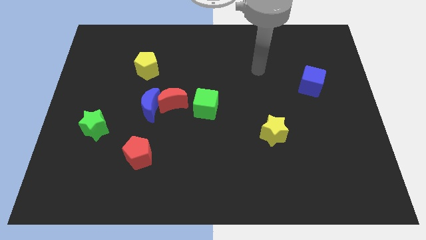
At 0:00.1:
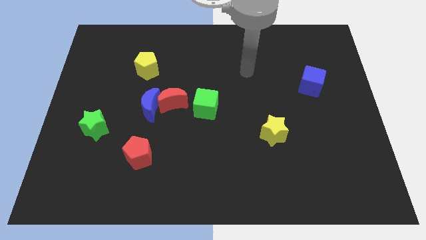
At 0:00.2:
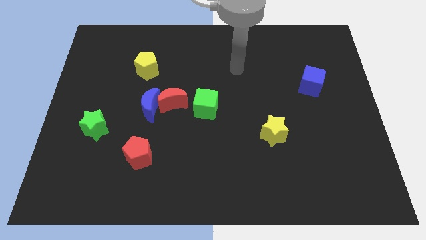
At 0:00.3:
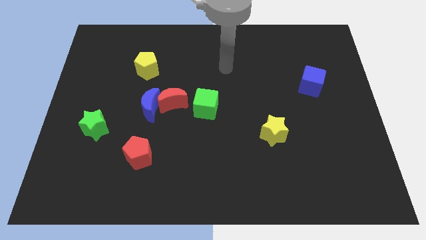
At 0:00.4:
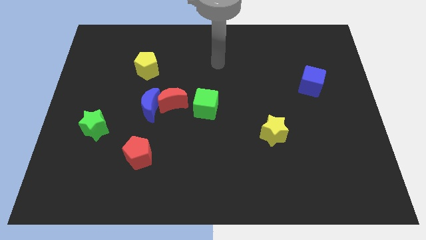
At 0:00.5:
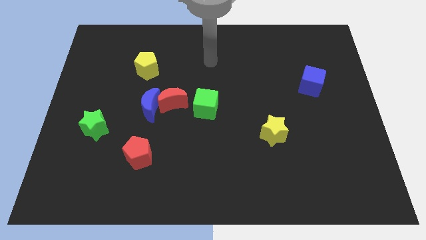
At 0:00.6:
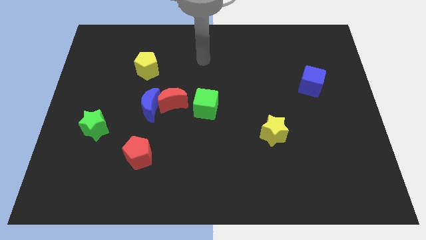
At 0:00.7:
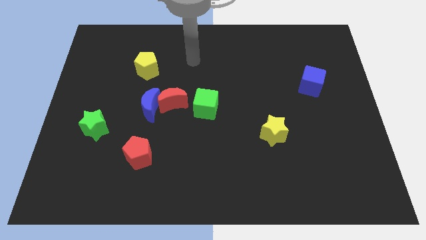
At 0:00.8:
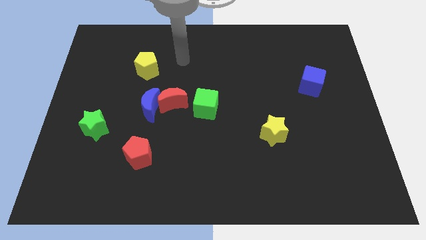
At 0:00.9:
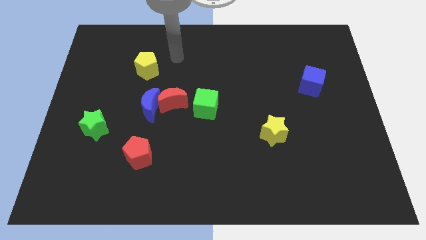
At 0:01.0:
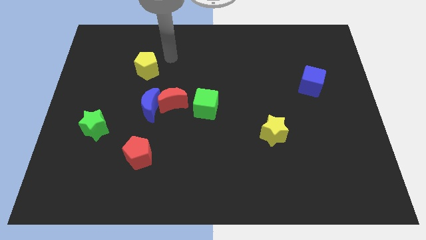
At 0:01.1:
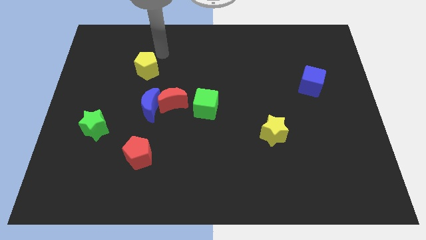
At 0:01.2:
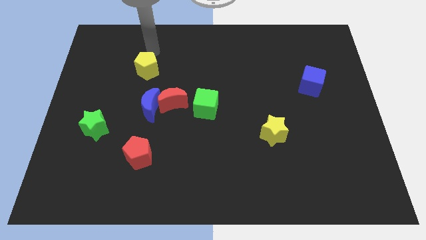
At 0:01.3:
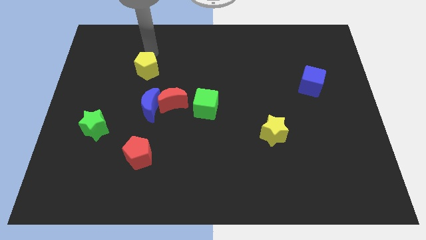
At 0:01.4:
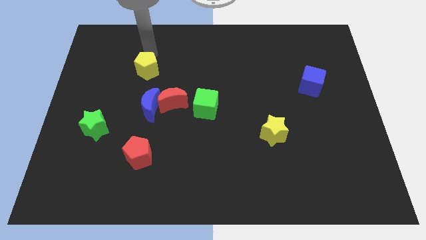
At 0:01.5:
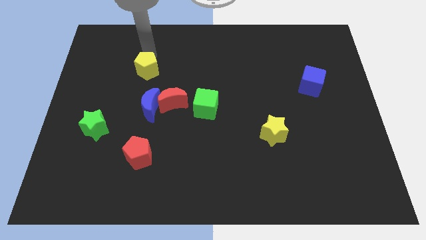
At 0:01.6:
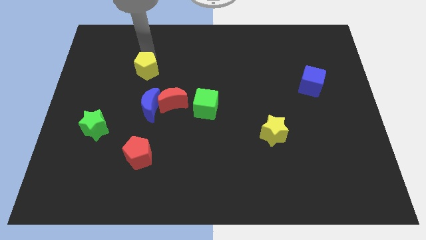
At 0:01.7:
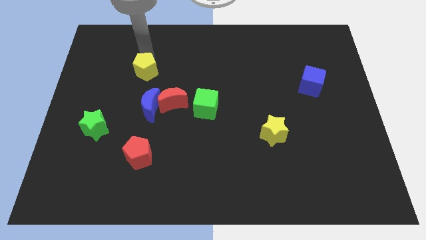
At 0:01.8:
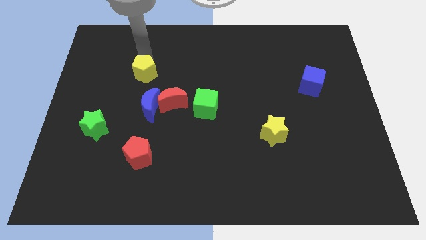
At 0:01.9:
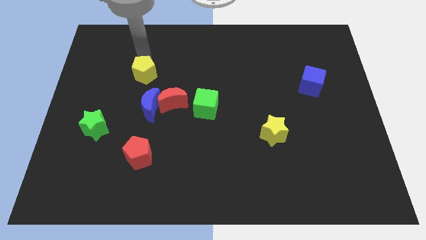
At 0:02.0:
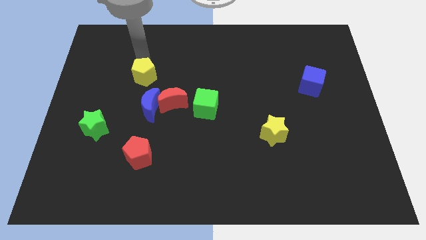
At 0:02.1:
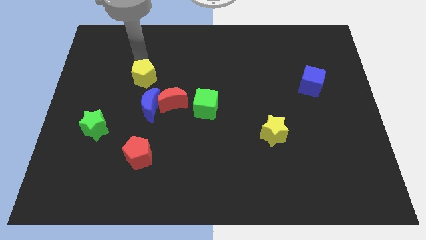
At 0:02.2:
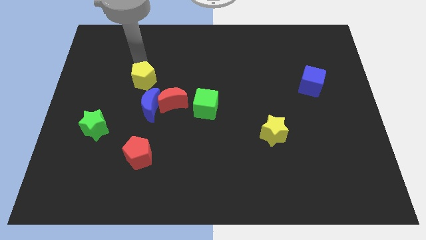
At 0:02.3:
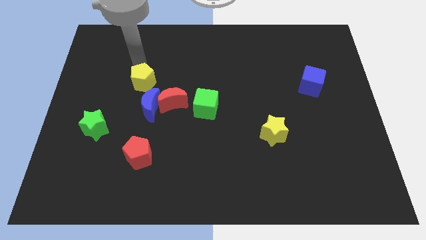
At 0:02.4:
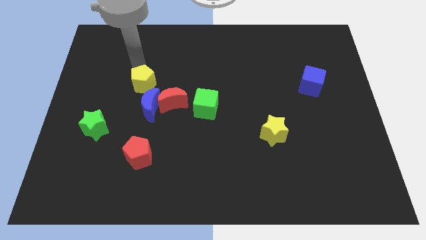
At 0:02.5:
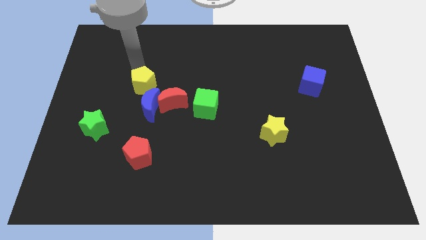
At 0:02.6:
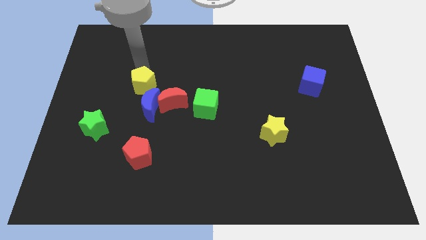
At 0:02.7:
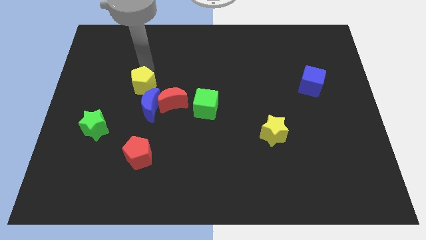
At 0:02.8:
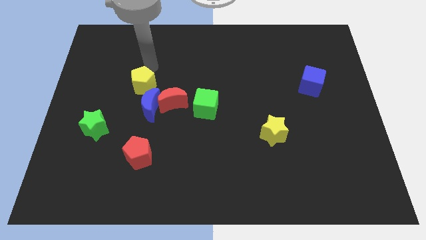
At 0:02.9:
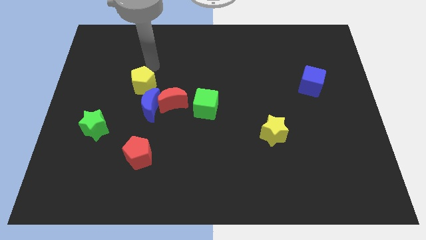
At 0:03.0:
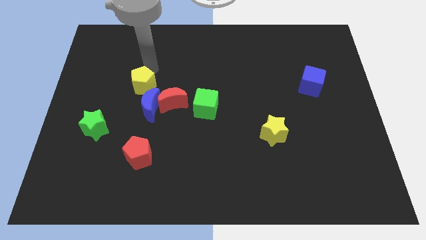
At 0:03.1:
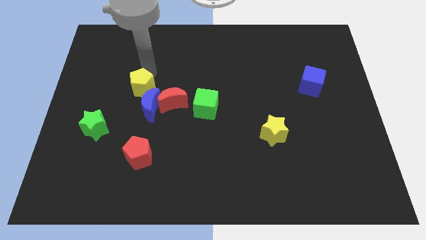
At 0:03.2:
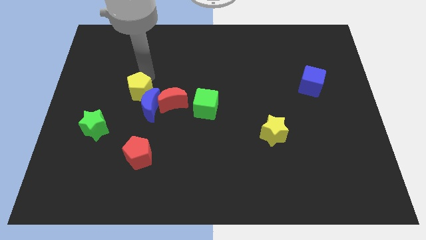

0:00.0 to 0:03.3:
slightly push the yellow pentagon down

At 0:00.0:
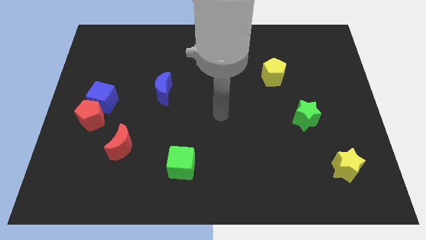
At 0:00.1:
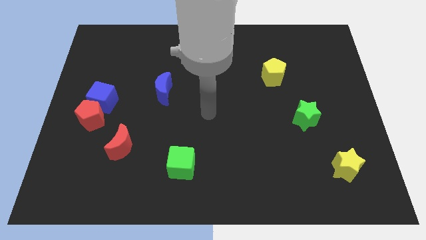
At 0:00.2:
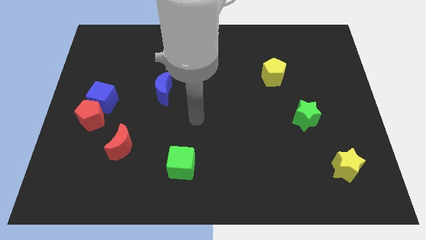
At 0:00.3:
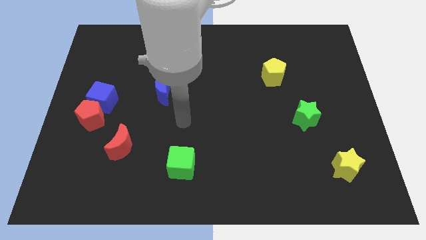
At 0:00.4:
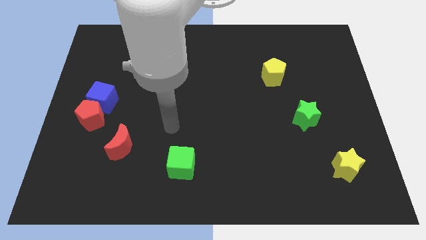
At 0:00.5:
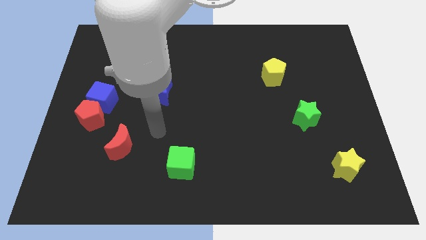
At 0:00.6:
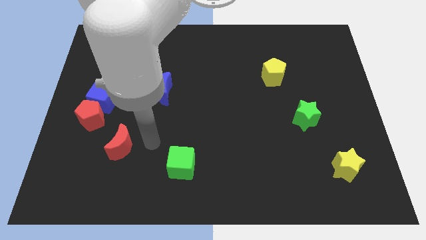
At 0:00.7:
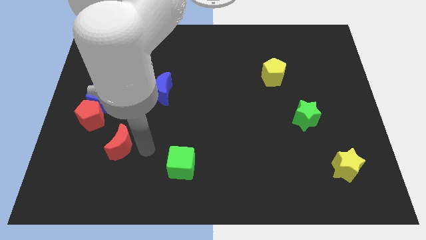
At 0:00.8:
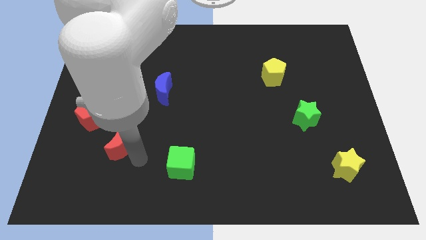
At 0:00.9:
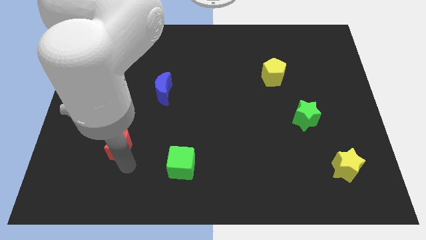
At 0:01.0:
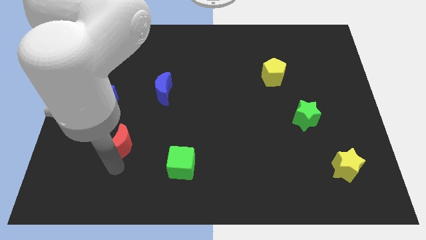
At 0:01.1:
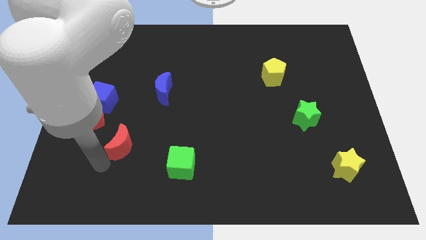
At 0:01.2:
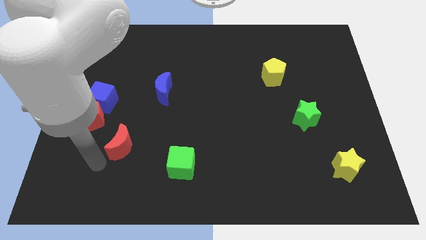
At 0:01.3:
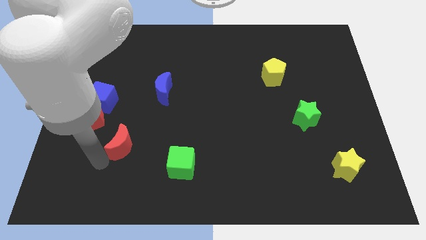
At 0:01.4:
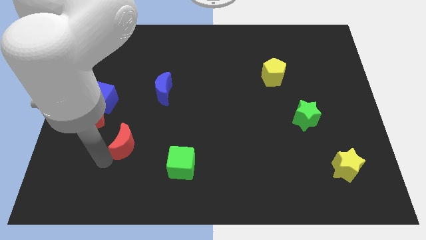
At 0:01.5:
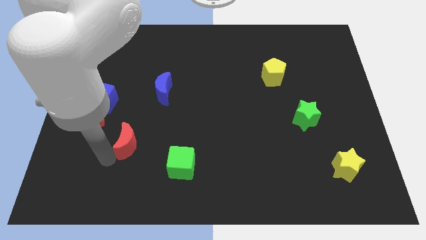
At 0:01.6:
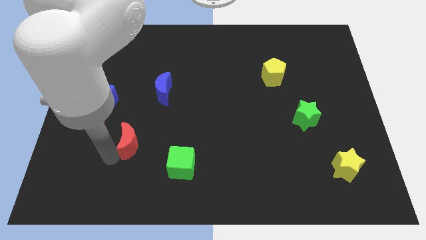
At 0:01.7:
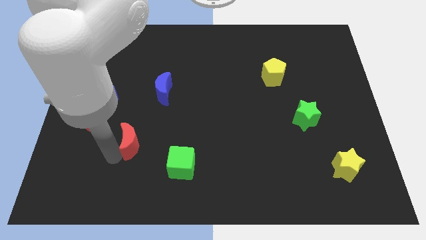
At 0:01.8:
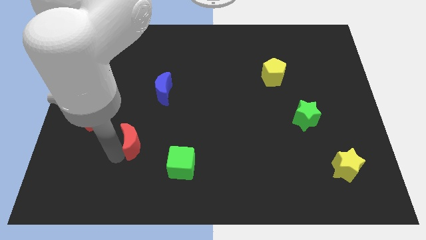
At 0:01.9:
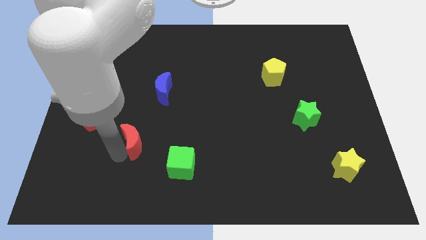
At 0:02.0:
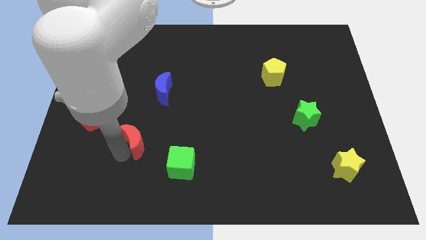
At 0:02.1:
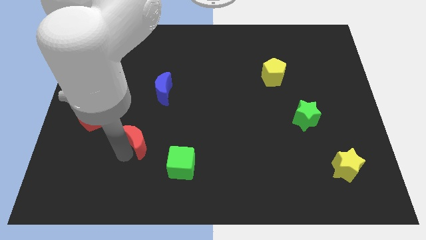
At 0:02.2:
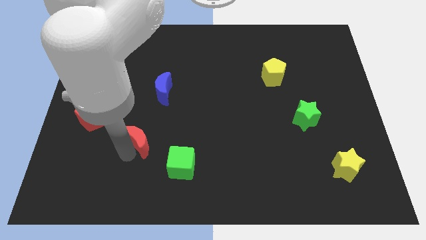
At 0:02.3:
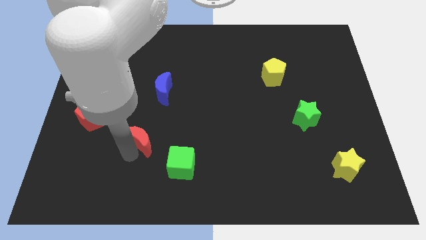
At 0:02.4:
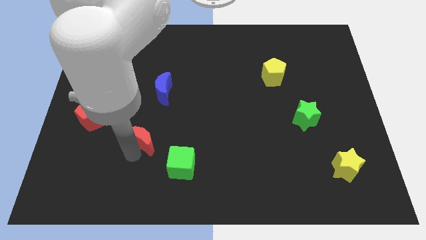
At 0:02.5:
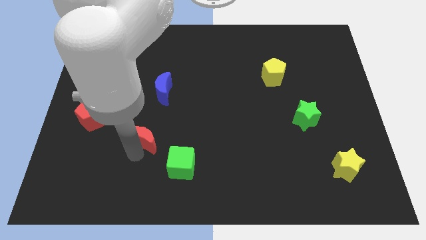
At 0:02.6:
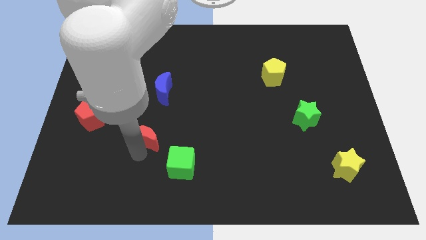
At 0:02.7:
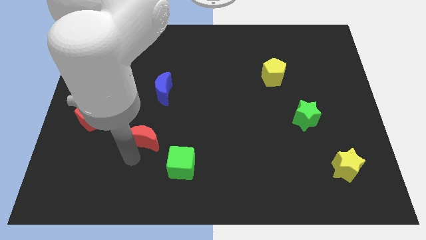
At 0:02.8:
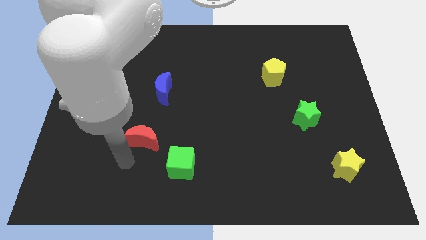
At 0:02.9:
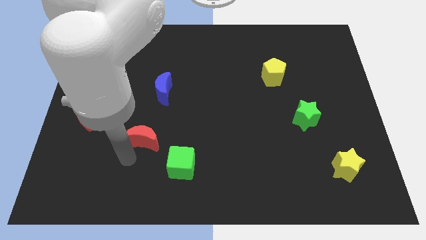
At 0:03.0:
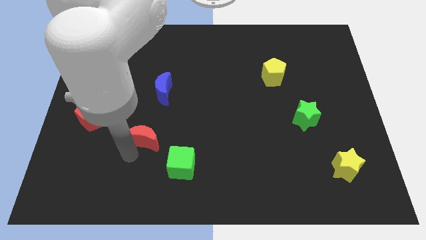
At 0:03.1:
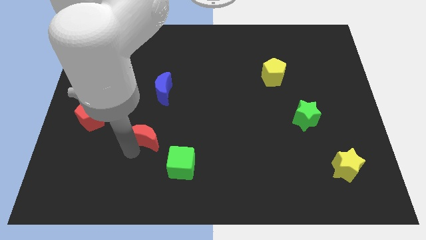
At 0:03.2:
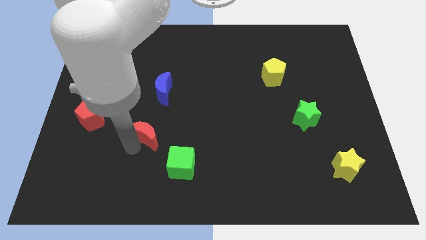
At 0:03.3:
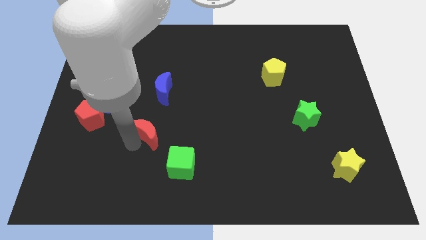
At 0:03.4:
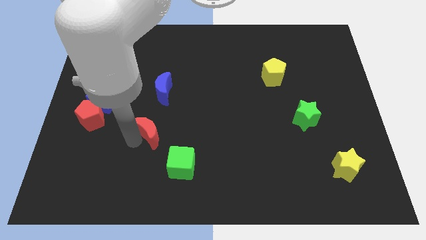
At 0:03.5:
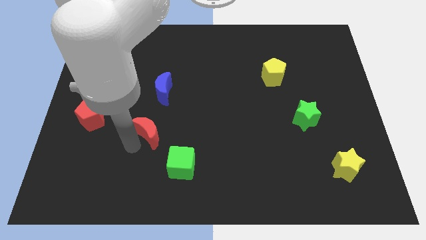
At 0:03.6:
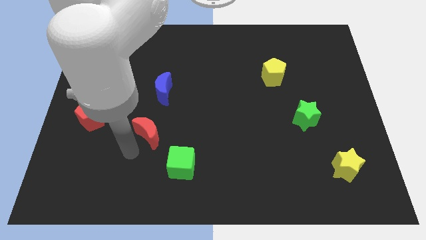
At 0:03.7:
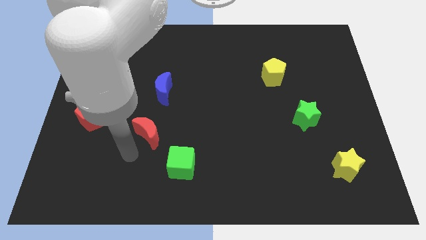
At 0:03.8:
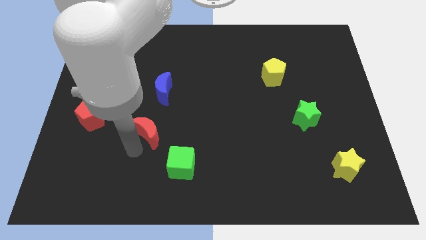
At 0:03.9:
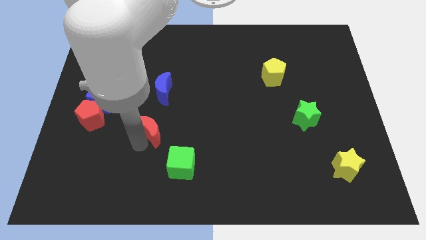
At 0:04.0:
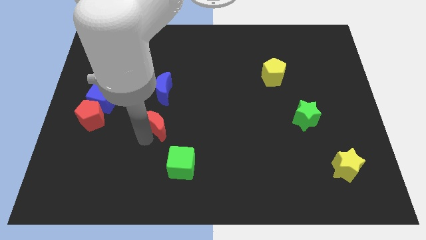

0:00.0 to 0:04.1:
push the red moon a little bit diagonally upwards and to the right

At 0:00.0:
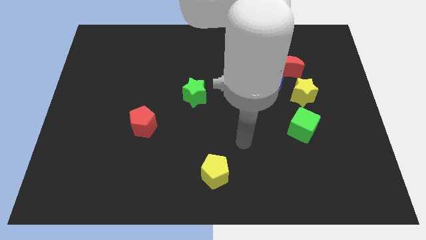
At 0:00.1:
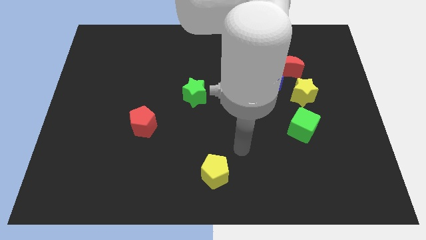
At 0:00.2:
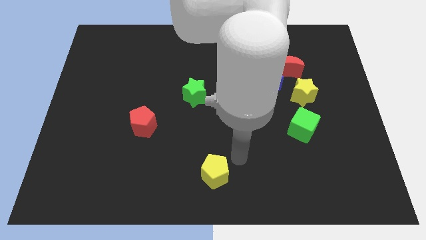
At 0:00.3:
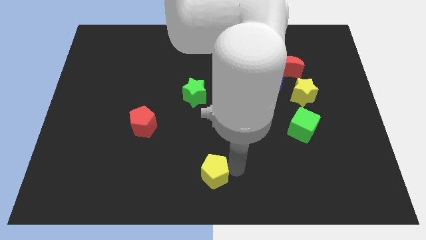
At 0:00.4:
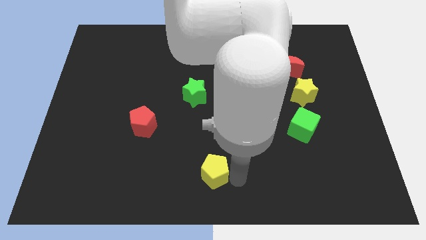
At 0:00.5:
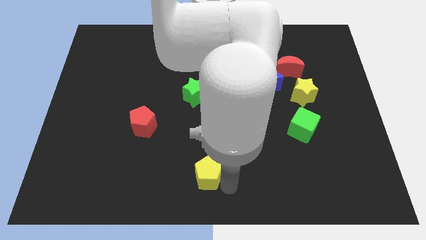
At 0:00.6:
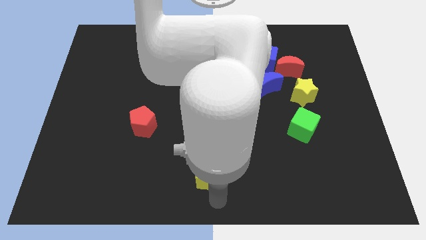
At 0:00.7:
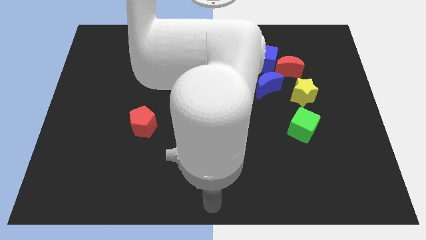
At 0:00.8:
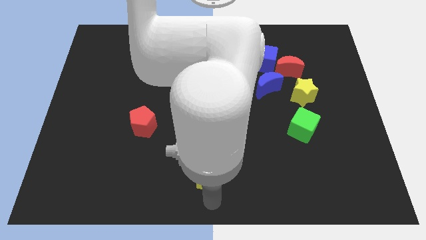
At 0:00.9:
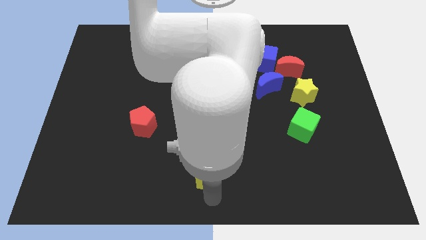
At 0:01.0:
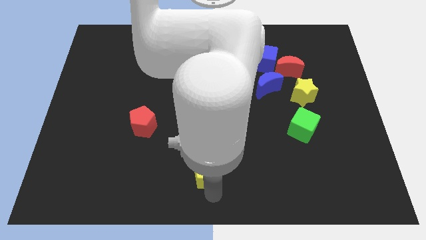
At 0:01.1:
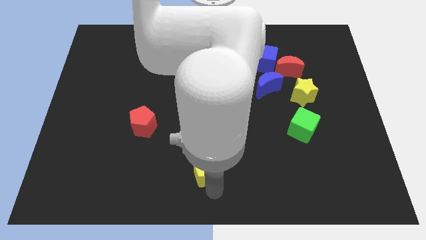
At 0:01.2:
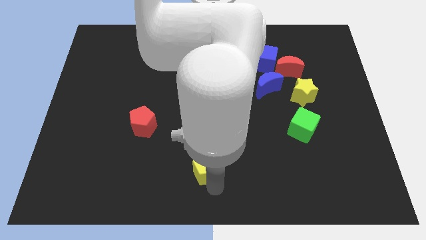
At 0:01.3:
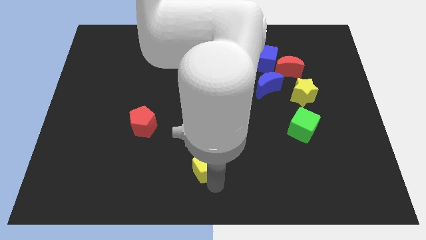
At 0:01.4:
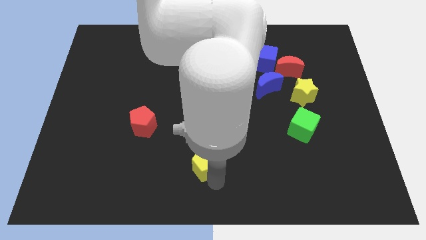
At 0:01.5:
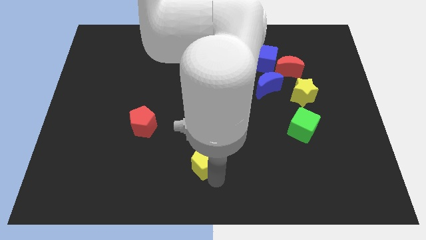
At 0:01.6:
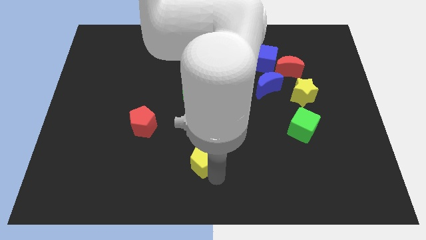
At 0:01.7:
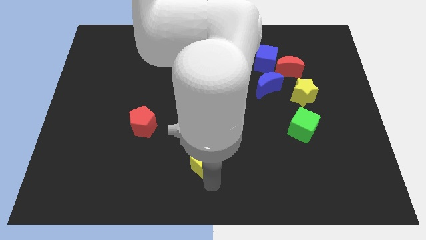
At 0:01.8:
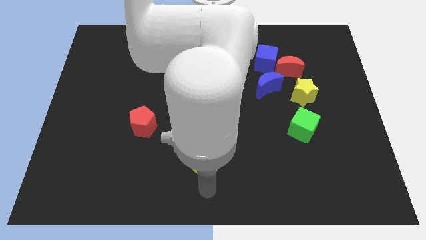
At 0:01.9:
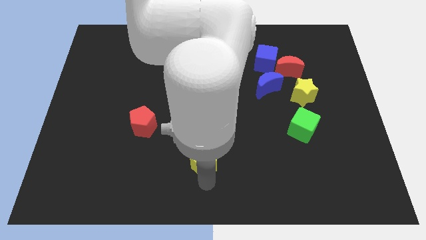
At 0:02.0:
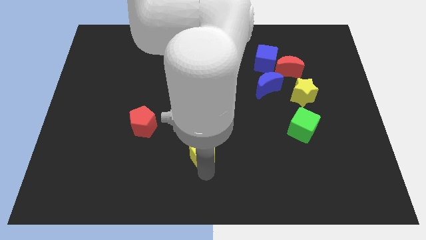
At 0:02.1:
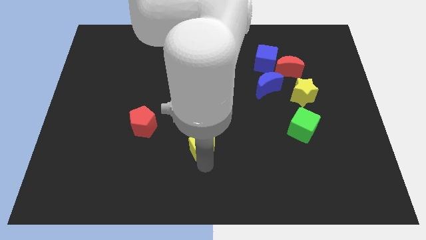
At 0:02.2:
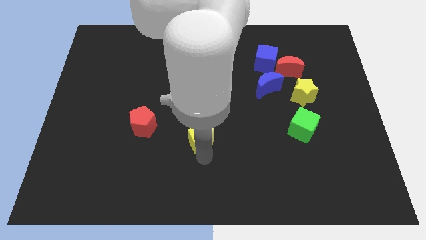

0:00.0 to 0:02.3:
move the yellow pentagon a little bit up
